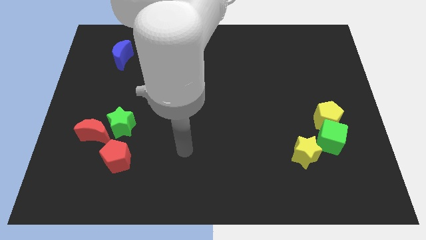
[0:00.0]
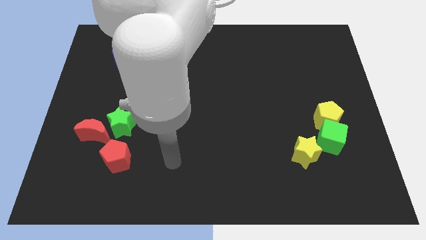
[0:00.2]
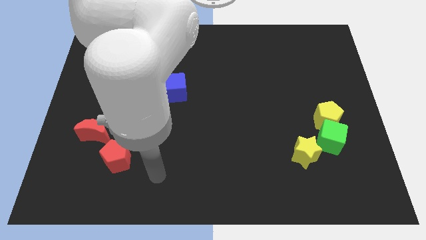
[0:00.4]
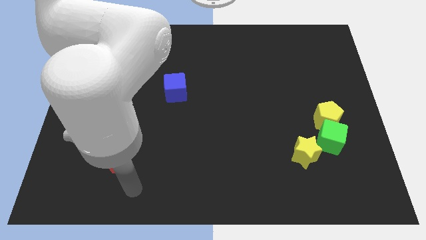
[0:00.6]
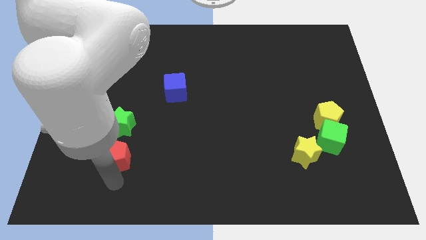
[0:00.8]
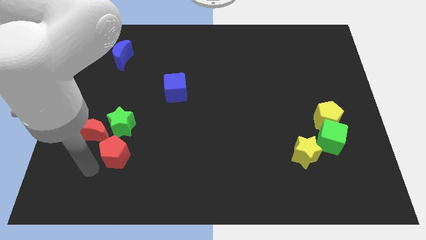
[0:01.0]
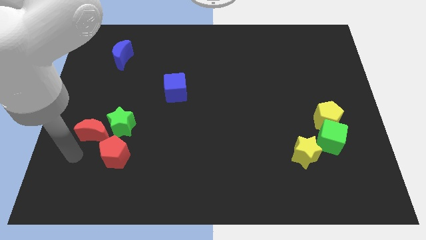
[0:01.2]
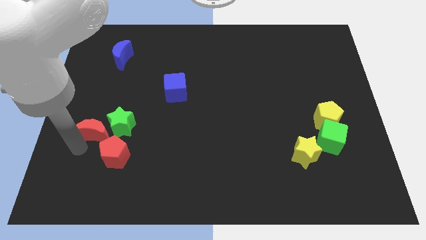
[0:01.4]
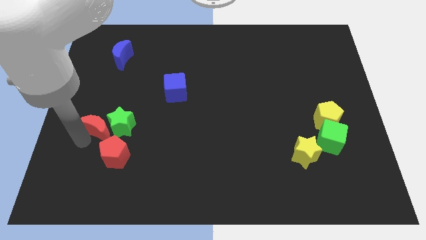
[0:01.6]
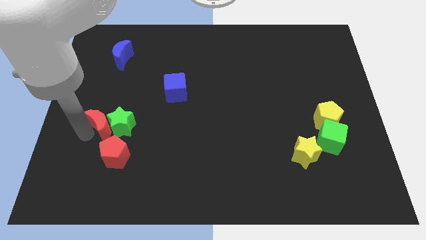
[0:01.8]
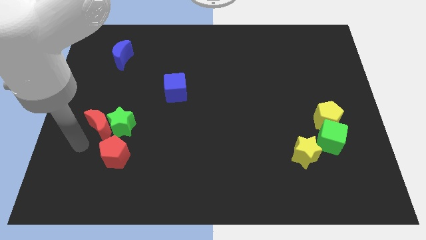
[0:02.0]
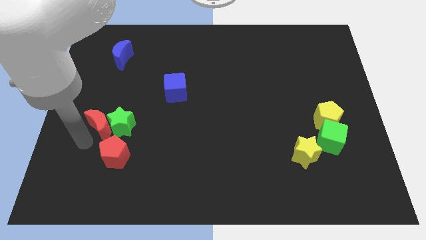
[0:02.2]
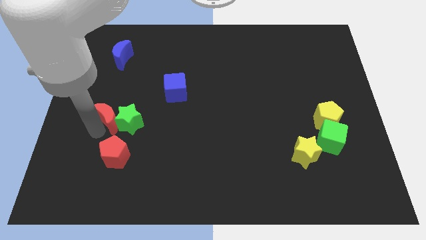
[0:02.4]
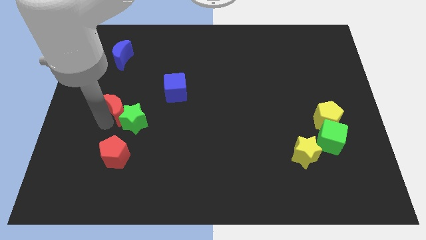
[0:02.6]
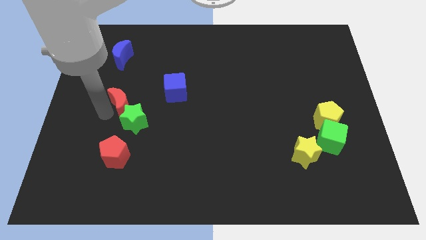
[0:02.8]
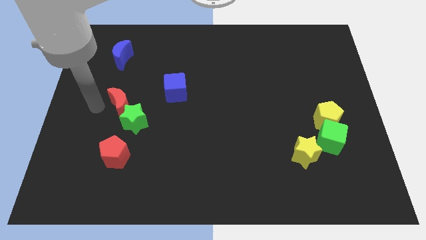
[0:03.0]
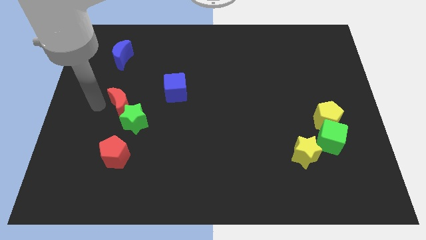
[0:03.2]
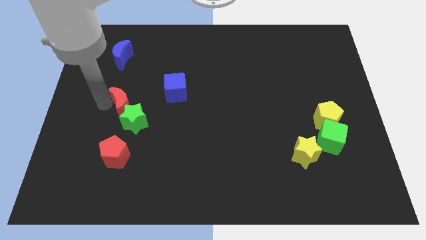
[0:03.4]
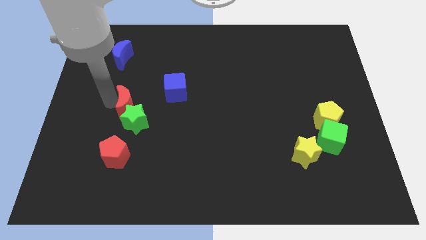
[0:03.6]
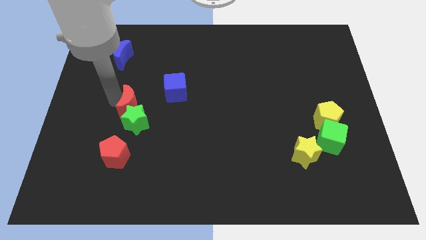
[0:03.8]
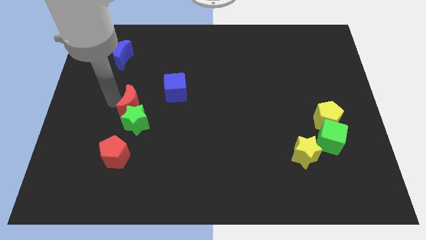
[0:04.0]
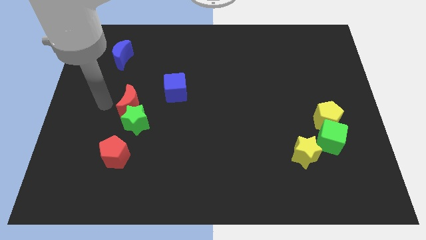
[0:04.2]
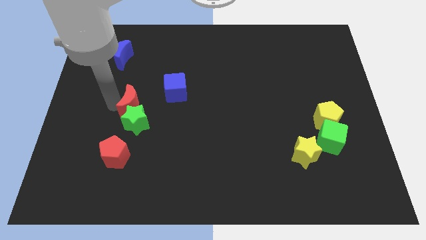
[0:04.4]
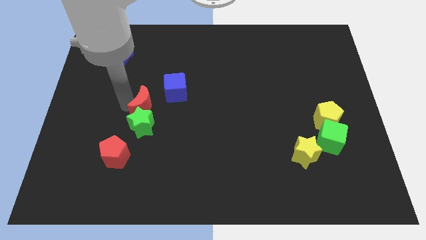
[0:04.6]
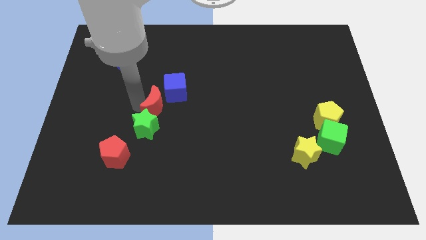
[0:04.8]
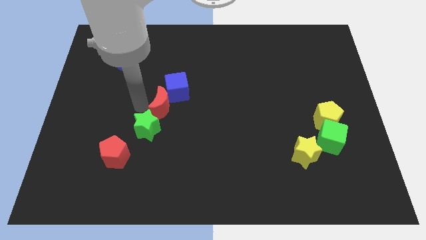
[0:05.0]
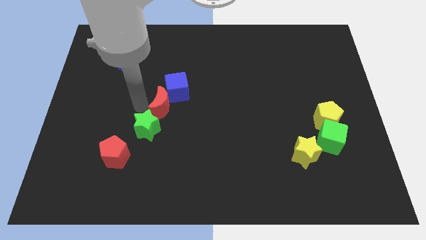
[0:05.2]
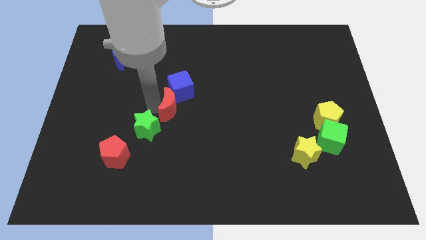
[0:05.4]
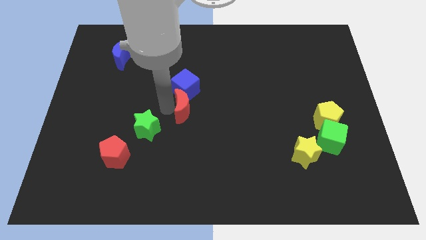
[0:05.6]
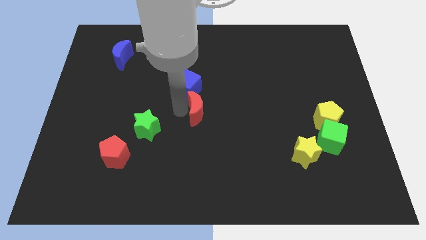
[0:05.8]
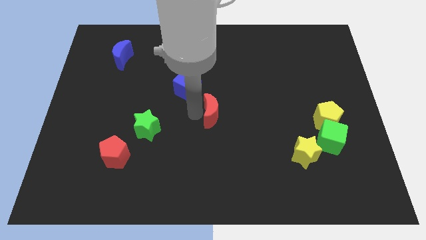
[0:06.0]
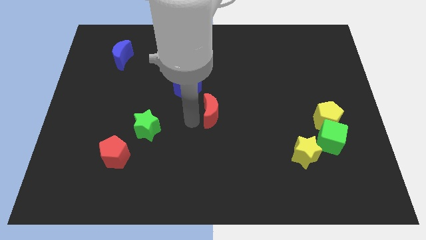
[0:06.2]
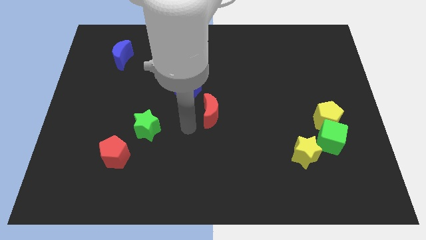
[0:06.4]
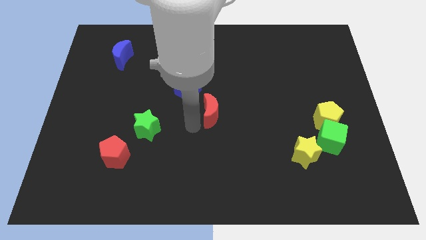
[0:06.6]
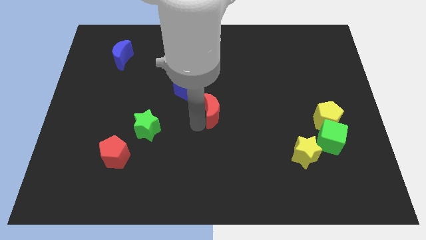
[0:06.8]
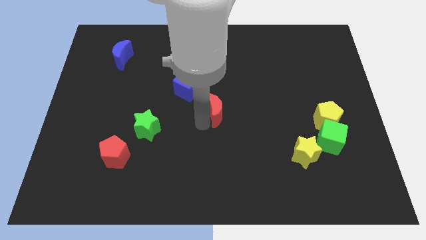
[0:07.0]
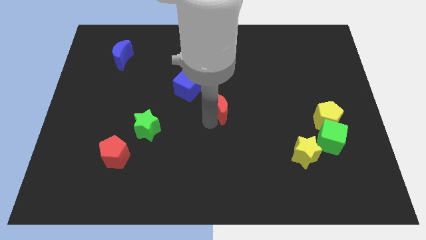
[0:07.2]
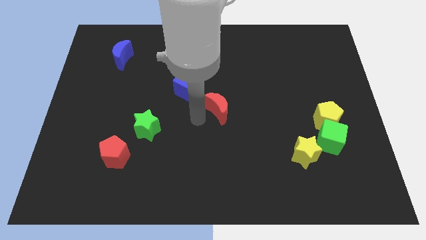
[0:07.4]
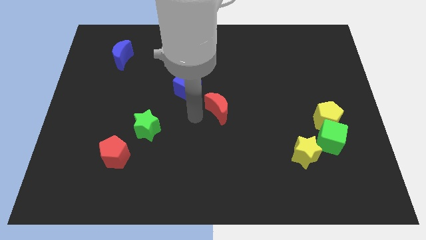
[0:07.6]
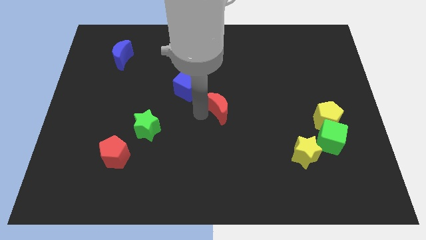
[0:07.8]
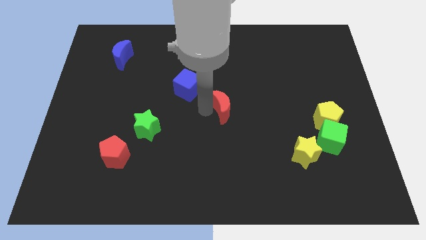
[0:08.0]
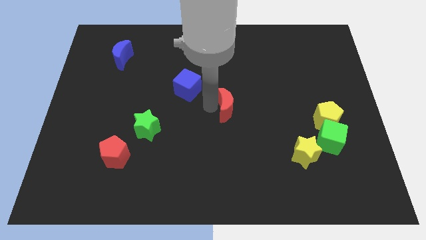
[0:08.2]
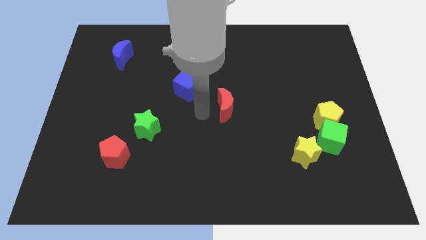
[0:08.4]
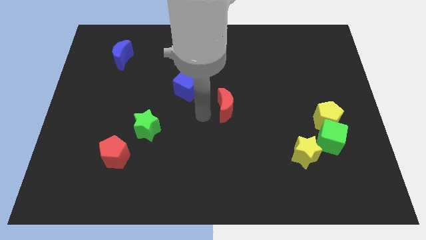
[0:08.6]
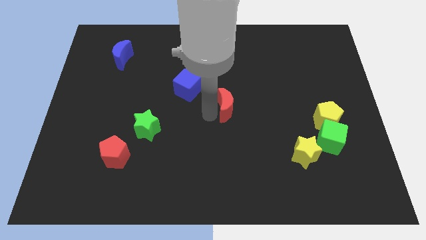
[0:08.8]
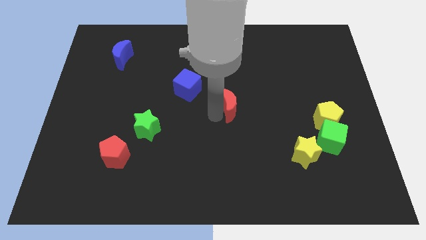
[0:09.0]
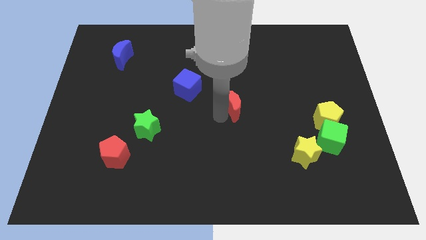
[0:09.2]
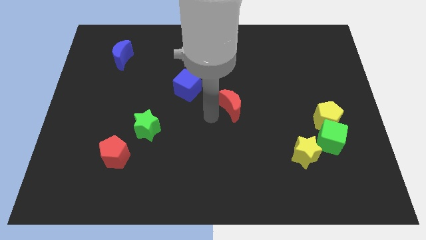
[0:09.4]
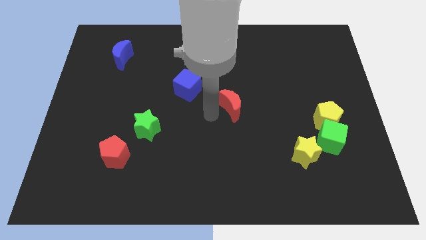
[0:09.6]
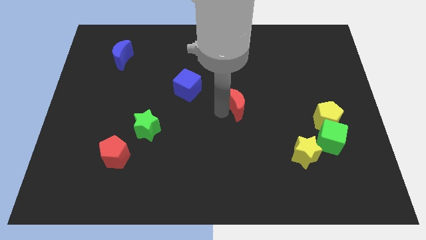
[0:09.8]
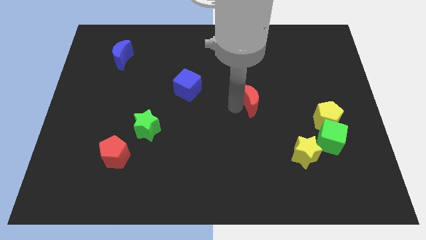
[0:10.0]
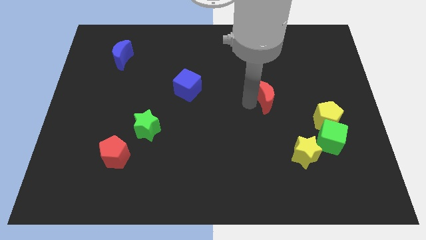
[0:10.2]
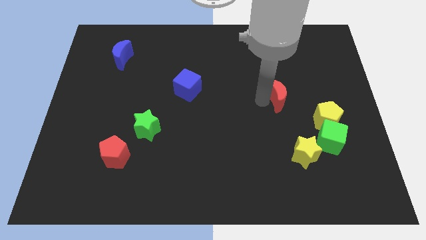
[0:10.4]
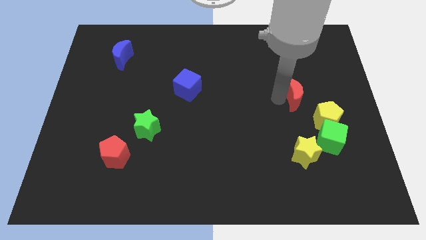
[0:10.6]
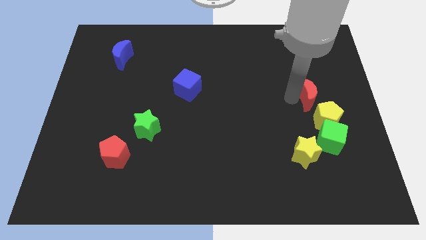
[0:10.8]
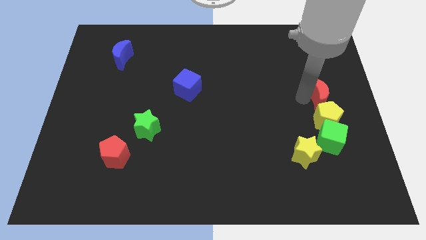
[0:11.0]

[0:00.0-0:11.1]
push the red moon to the right side
